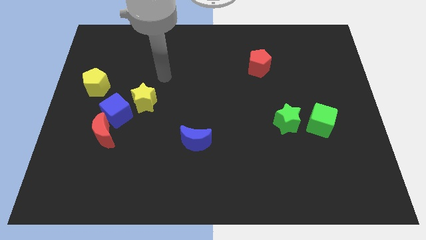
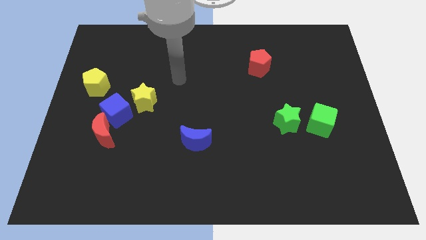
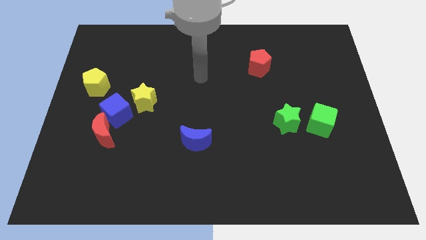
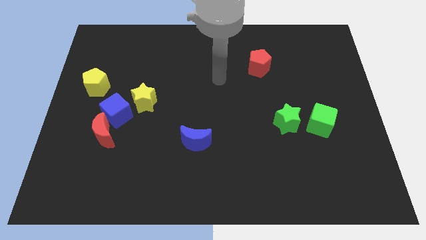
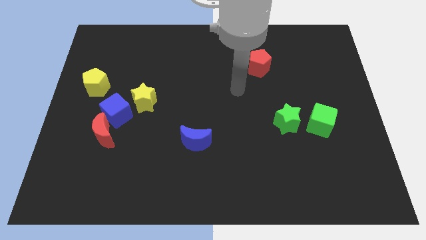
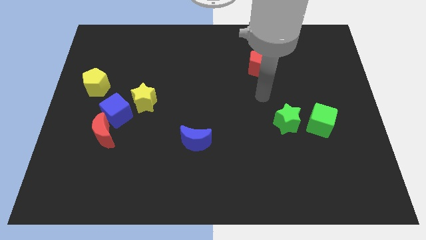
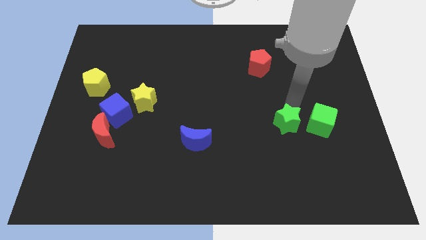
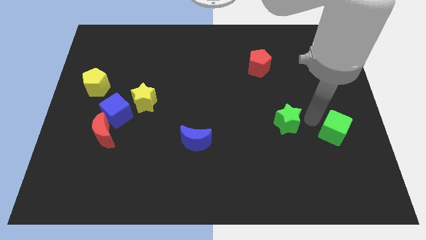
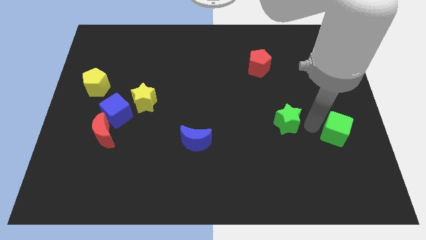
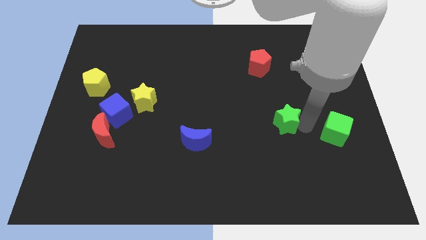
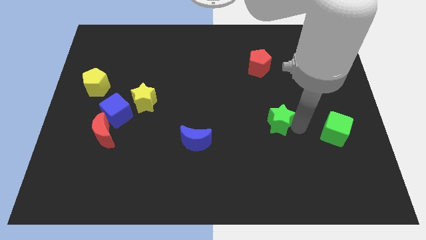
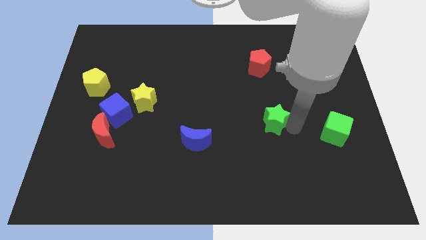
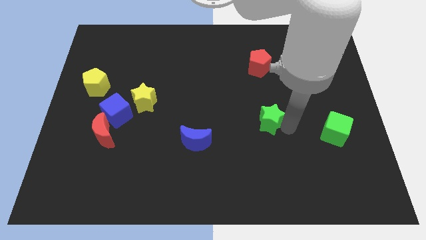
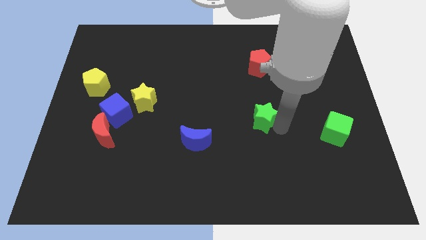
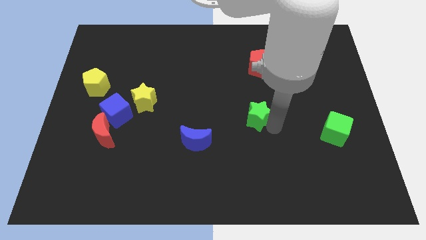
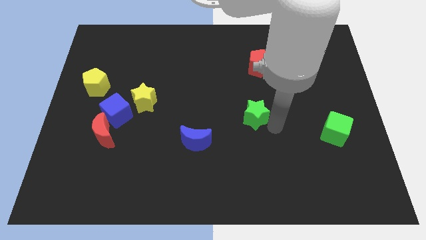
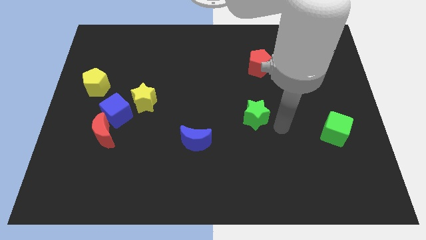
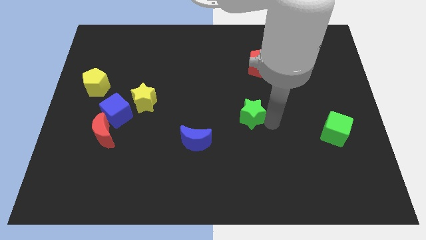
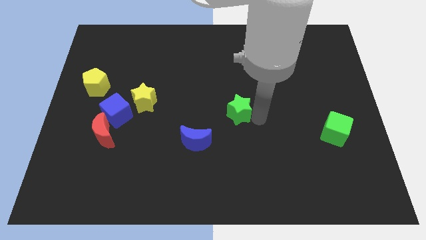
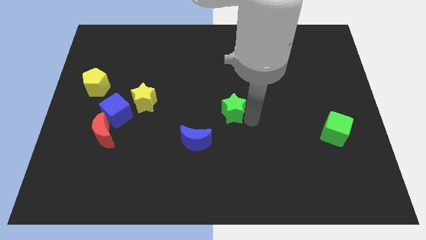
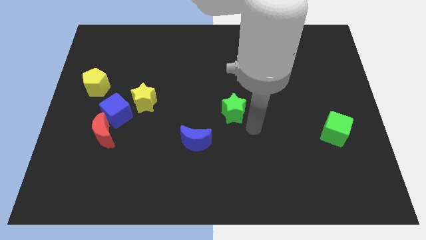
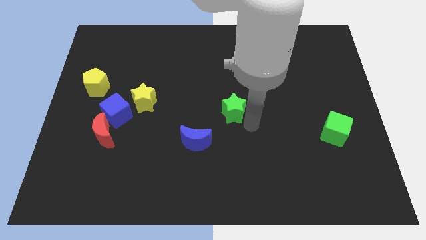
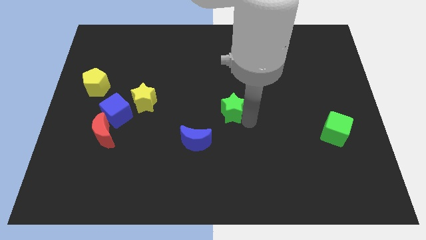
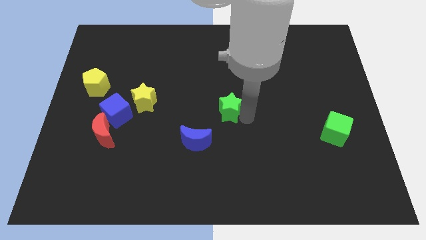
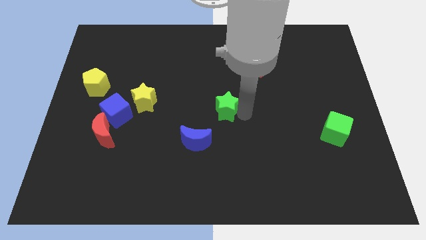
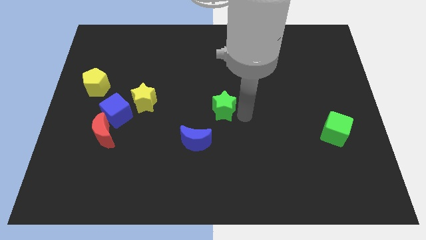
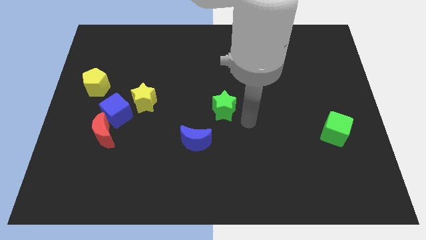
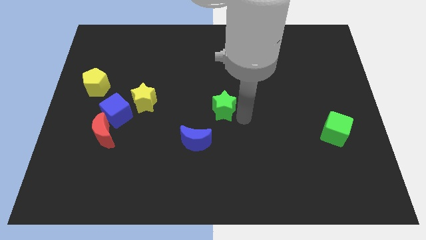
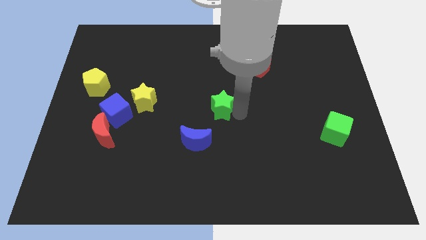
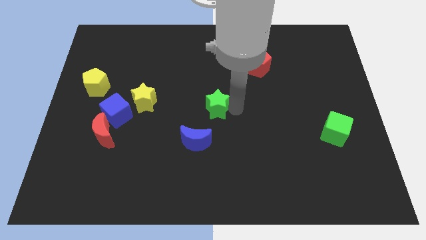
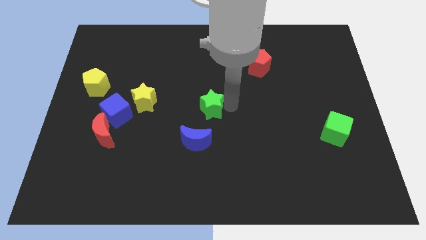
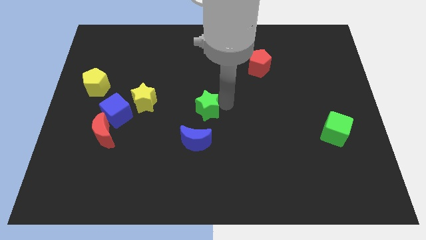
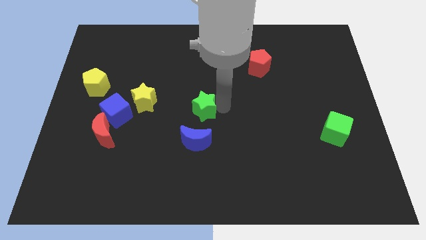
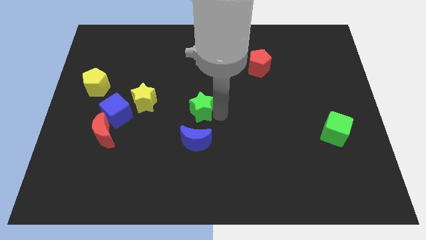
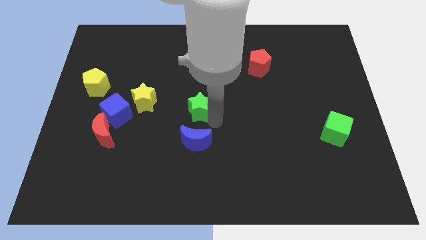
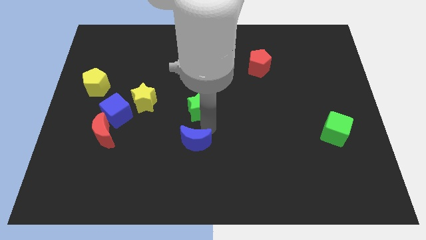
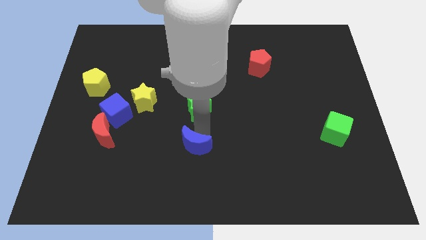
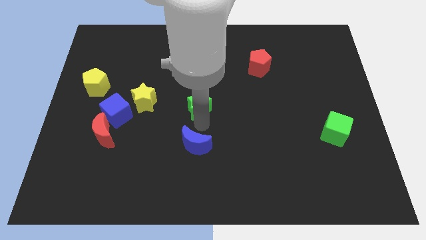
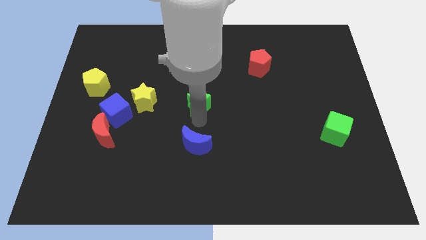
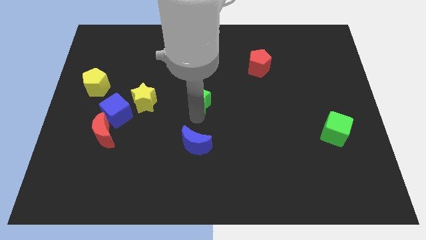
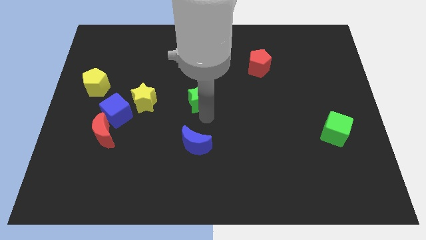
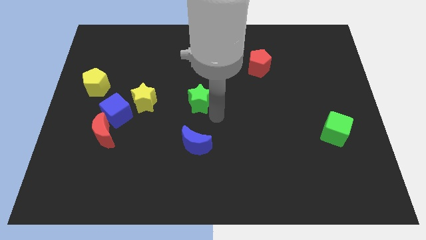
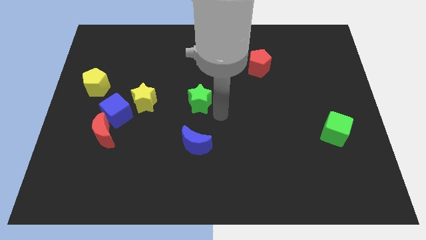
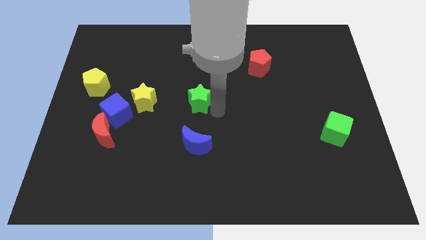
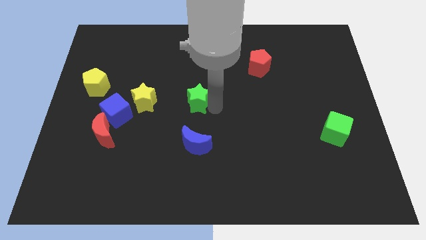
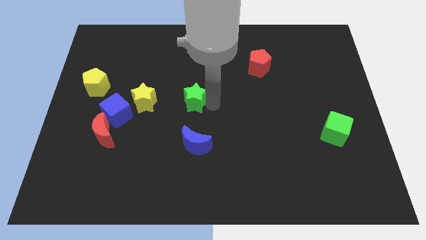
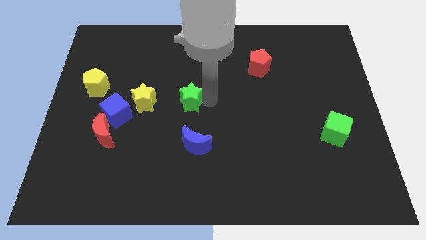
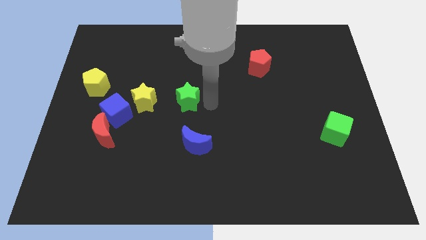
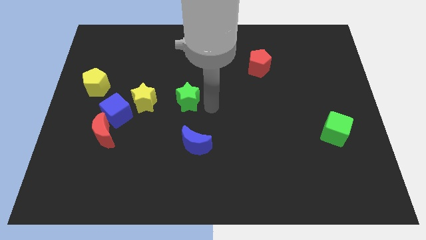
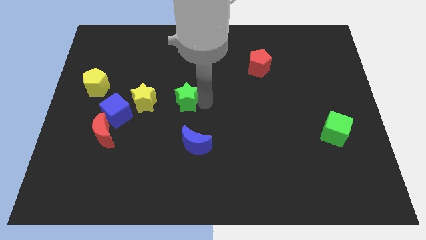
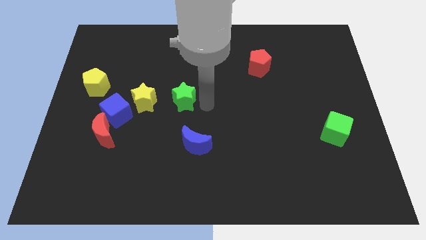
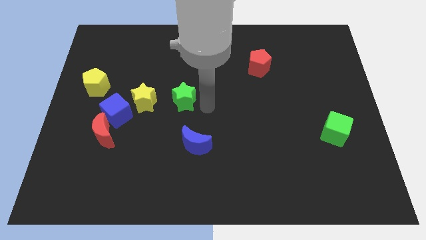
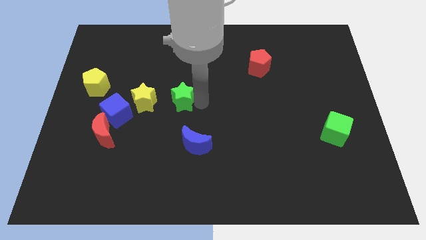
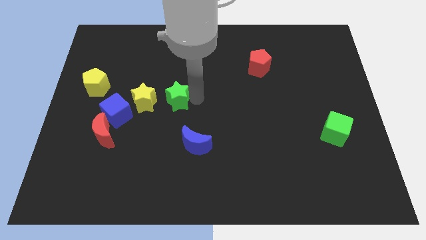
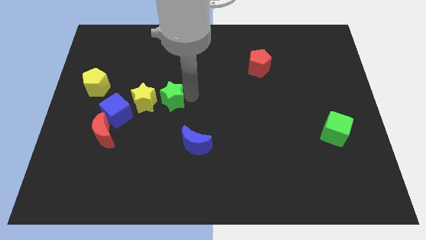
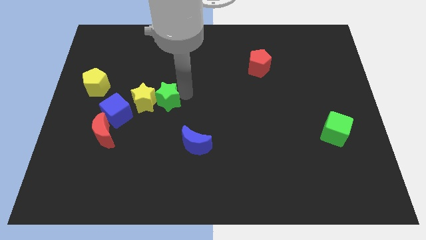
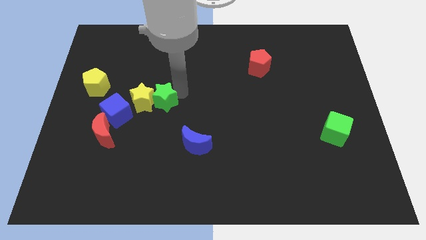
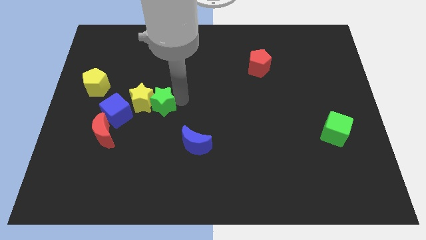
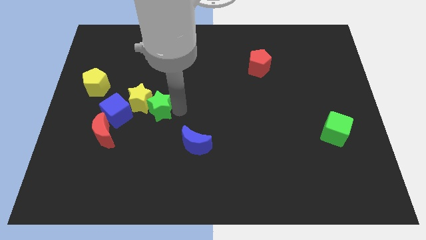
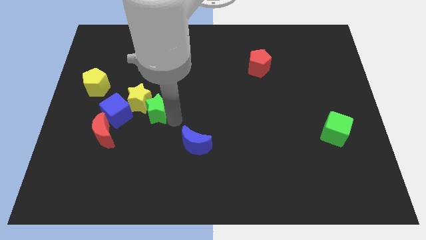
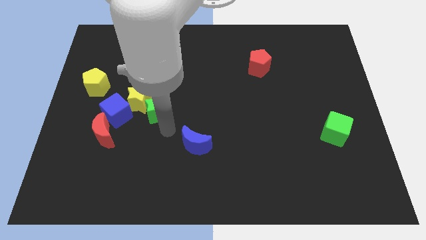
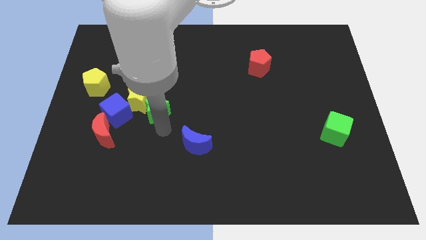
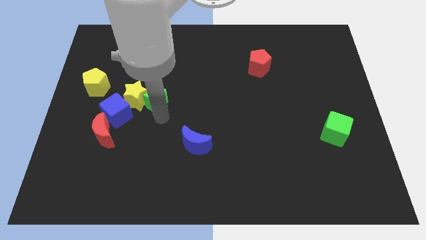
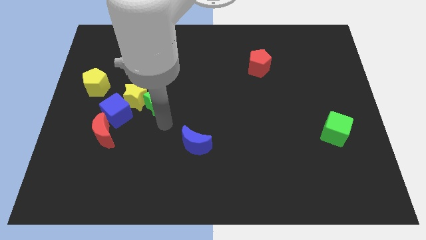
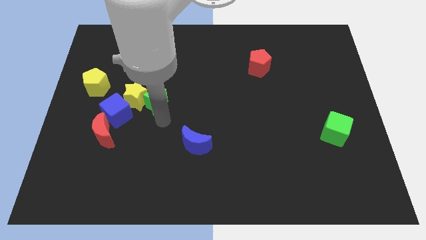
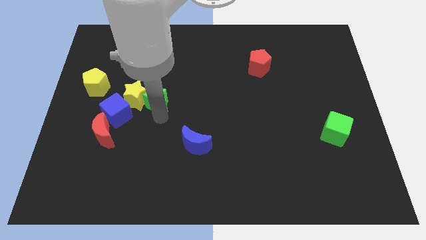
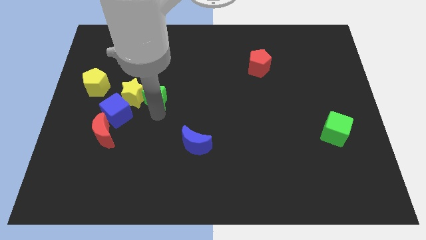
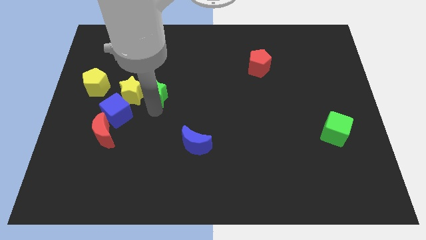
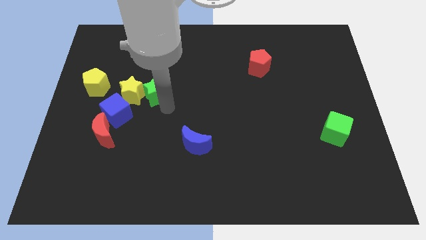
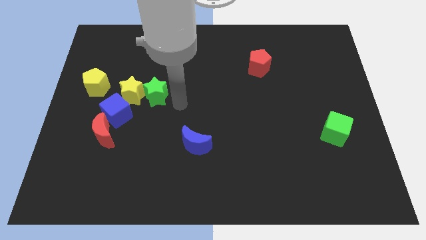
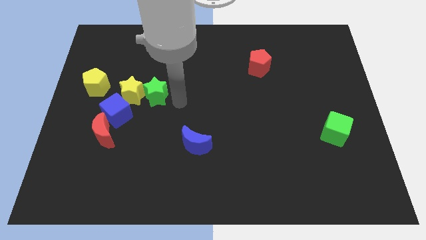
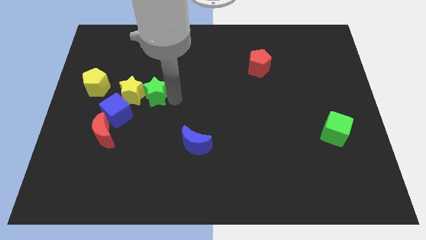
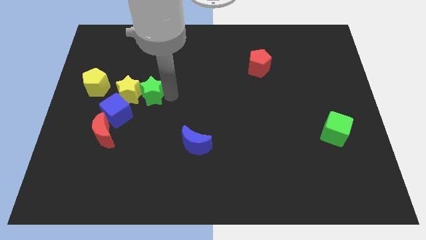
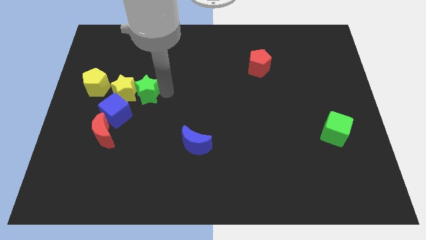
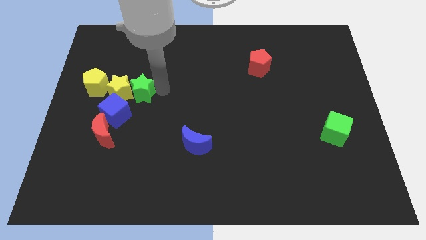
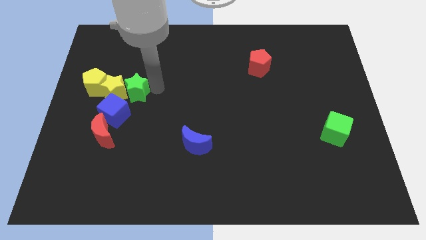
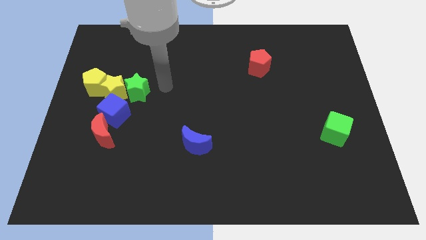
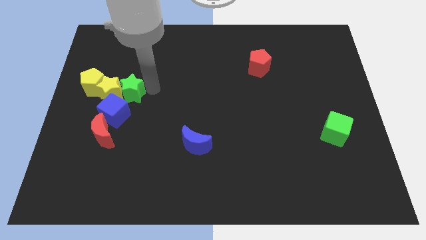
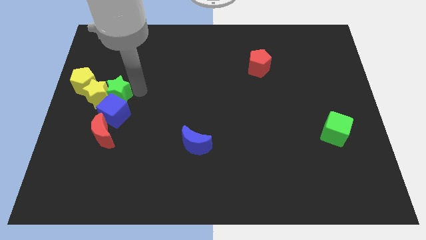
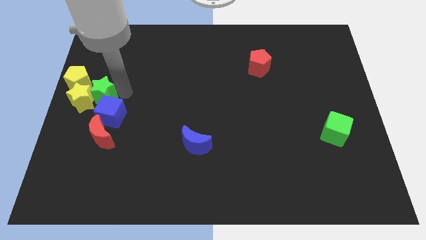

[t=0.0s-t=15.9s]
put the green star to the center left
